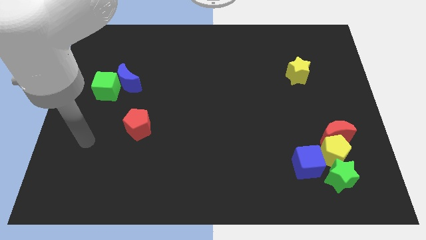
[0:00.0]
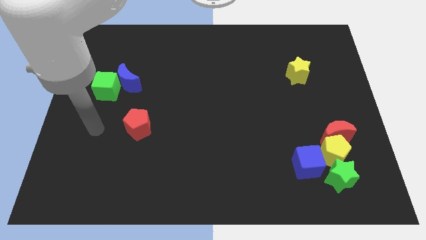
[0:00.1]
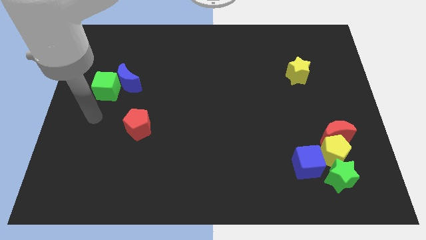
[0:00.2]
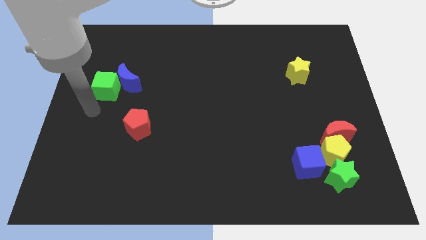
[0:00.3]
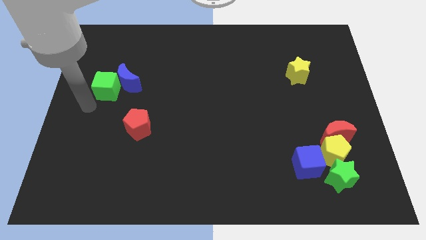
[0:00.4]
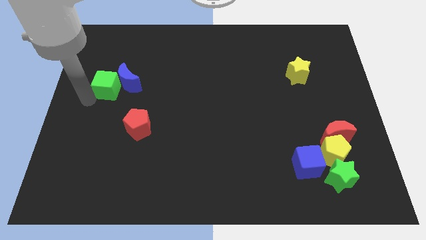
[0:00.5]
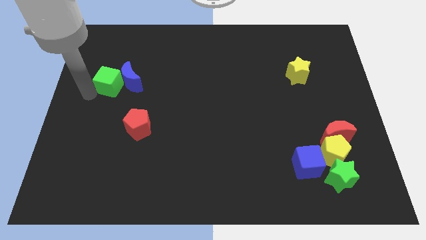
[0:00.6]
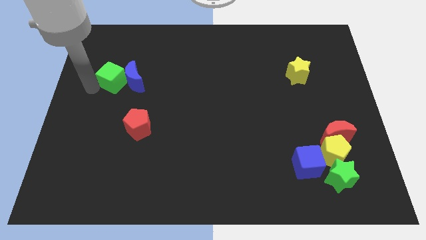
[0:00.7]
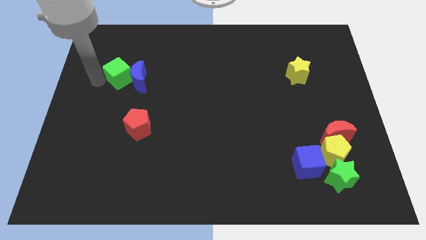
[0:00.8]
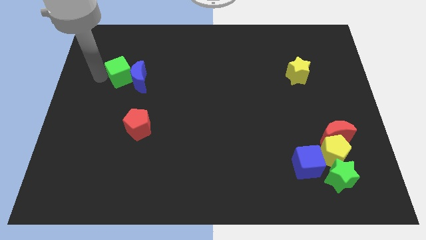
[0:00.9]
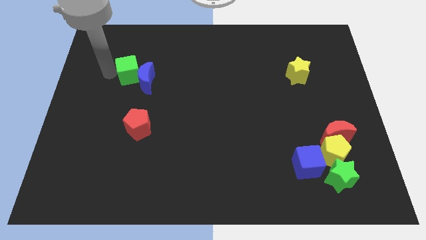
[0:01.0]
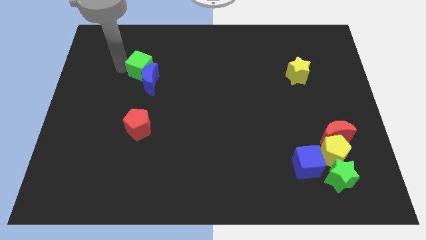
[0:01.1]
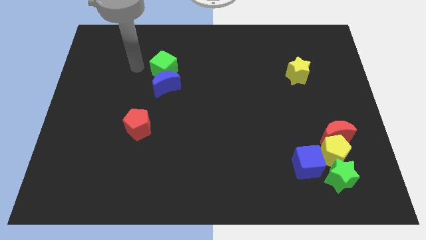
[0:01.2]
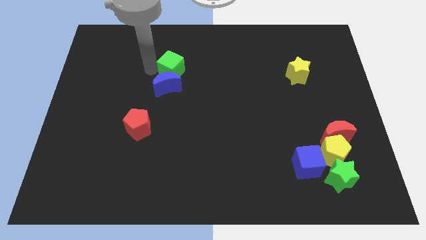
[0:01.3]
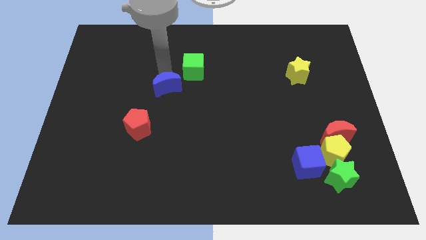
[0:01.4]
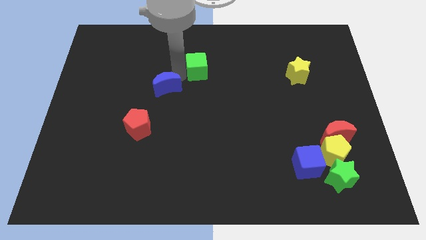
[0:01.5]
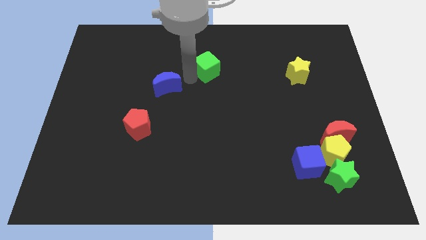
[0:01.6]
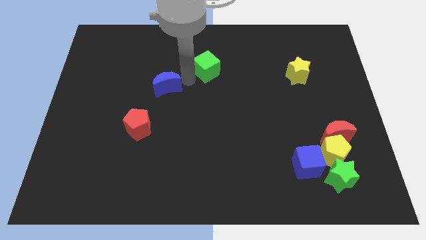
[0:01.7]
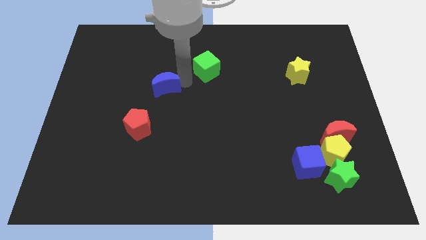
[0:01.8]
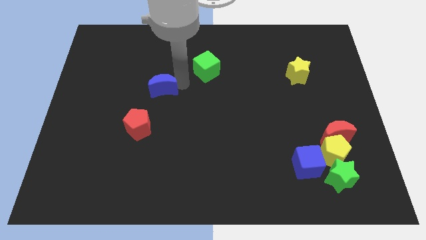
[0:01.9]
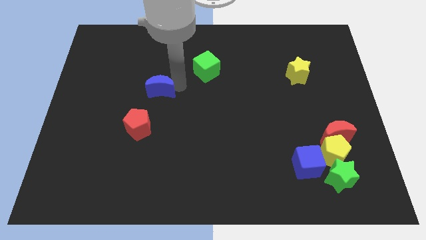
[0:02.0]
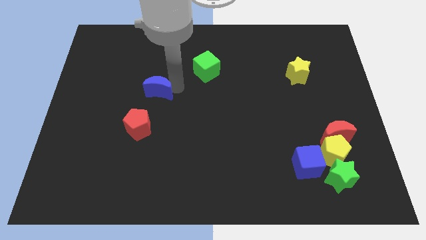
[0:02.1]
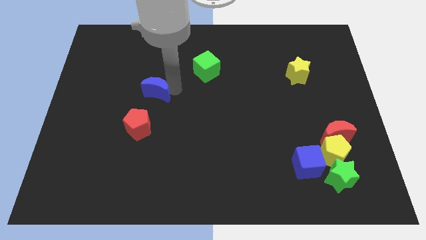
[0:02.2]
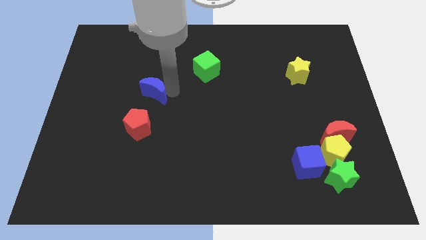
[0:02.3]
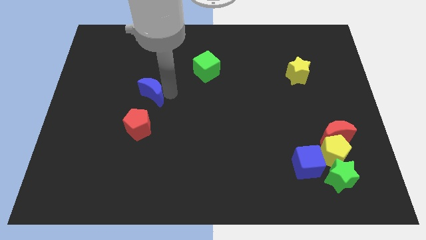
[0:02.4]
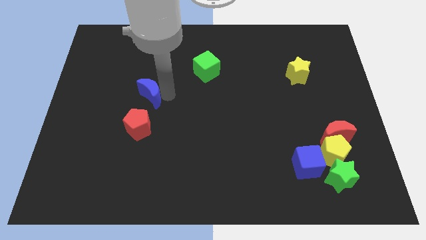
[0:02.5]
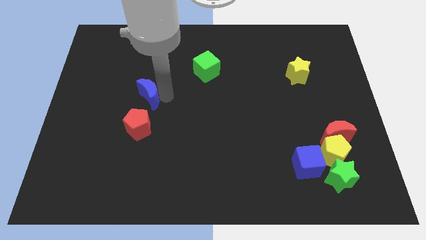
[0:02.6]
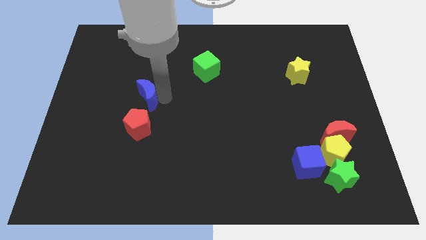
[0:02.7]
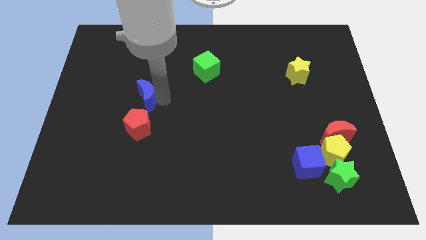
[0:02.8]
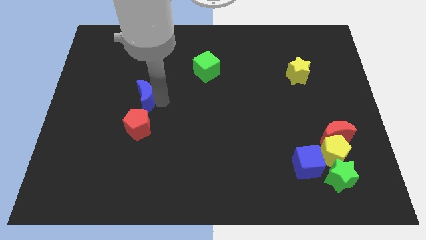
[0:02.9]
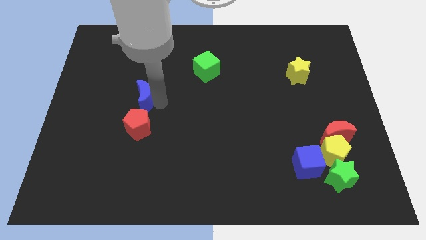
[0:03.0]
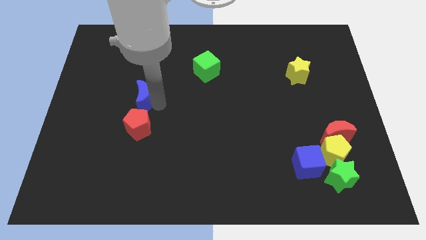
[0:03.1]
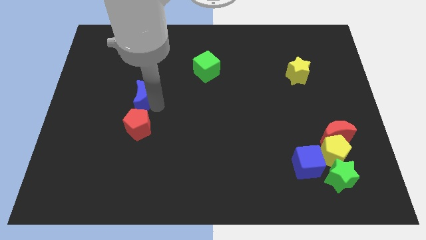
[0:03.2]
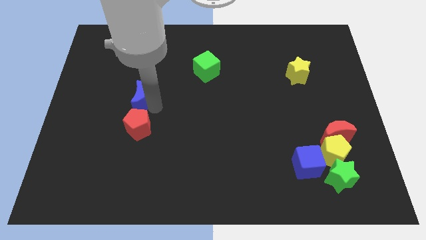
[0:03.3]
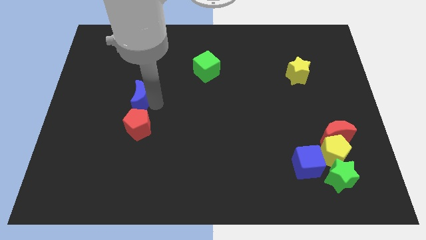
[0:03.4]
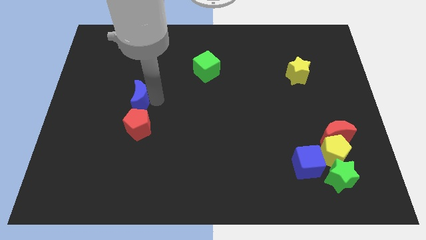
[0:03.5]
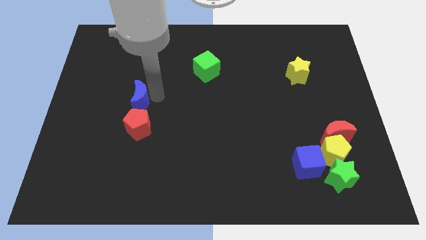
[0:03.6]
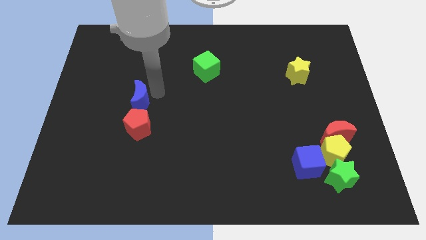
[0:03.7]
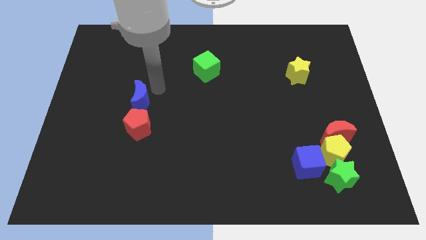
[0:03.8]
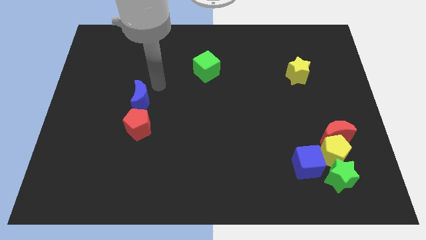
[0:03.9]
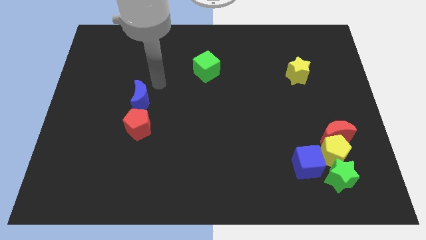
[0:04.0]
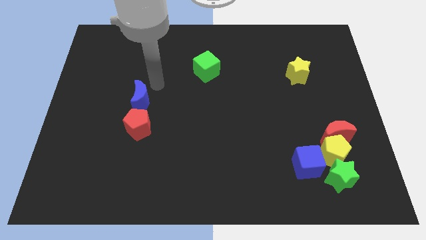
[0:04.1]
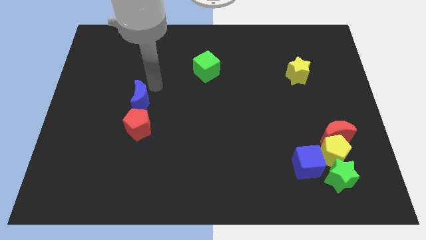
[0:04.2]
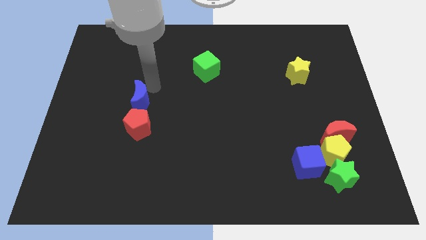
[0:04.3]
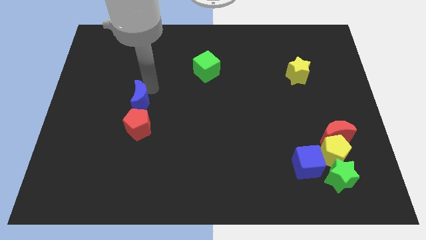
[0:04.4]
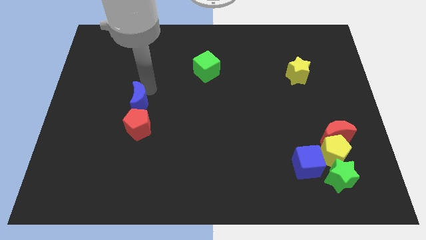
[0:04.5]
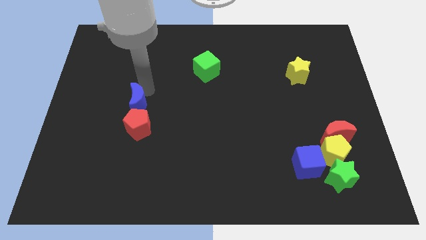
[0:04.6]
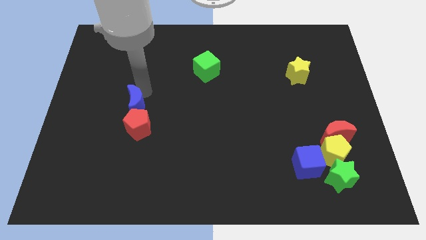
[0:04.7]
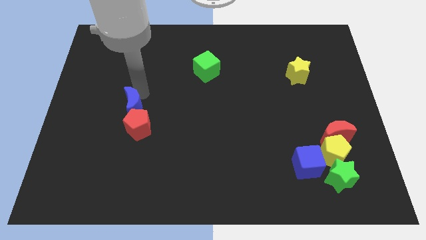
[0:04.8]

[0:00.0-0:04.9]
put the blue moon next to the red pentagon

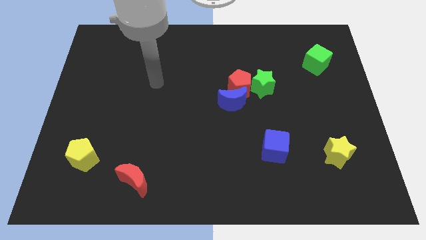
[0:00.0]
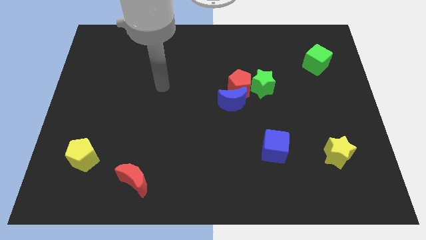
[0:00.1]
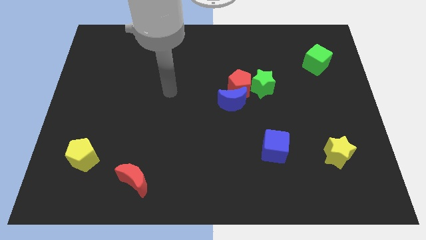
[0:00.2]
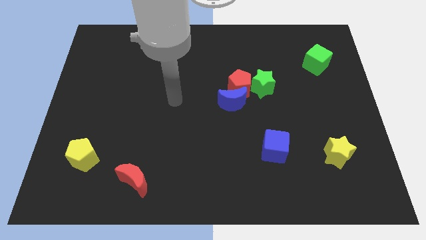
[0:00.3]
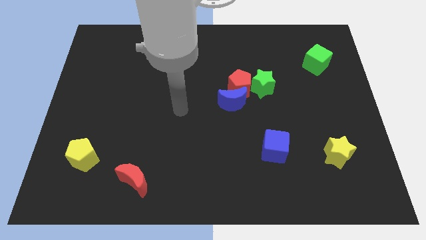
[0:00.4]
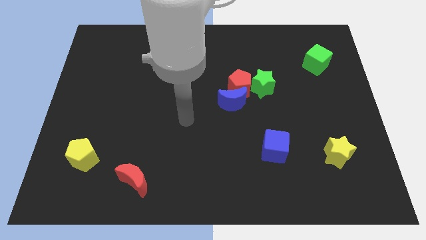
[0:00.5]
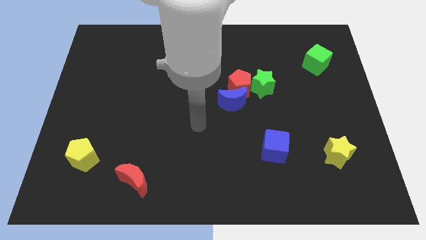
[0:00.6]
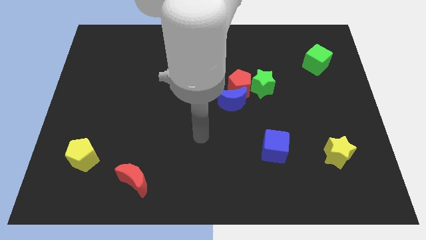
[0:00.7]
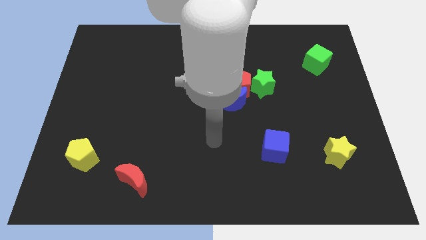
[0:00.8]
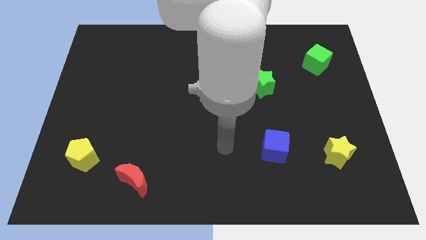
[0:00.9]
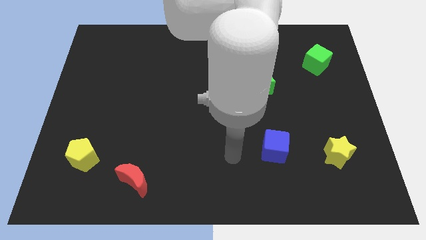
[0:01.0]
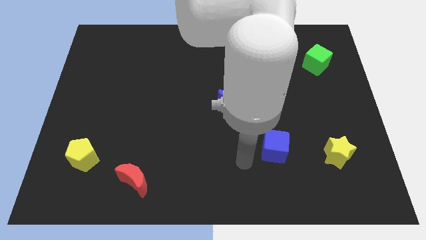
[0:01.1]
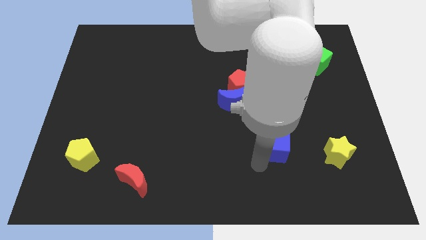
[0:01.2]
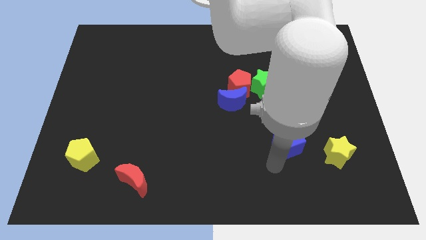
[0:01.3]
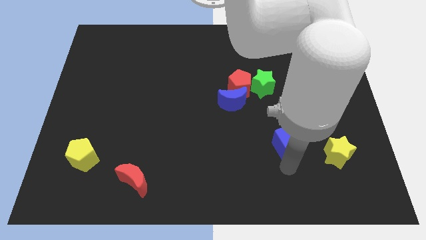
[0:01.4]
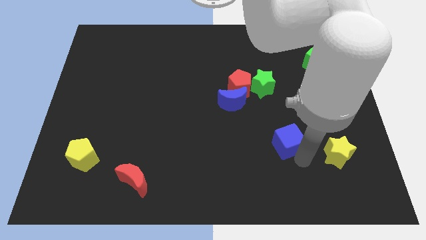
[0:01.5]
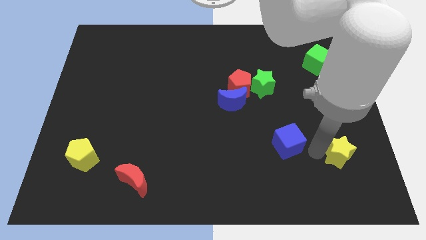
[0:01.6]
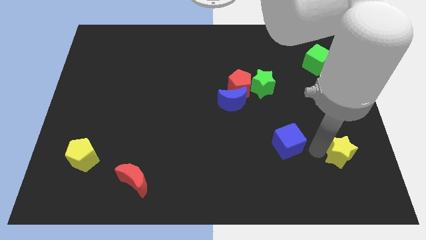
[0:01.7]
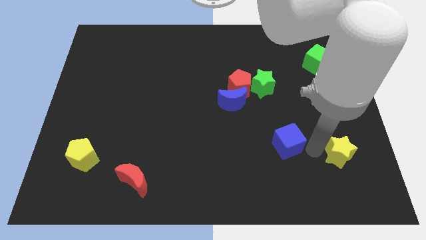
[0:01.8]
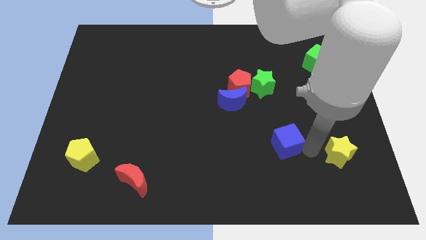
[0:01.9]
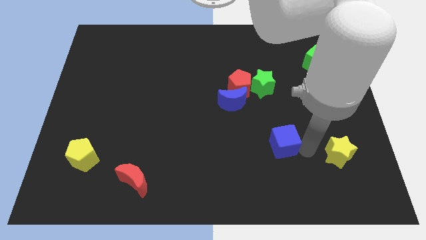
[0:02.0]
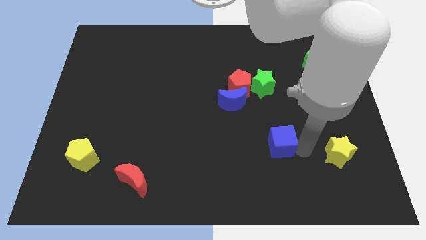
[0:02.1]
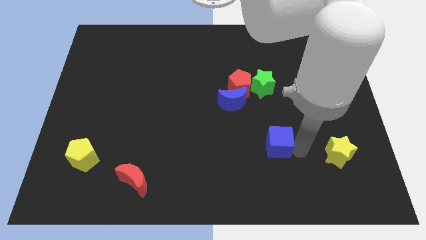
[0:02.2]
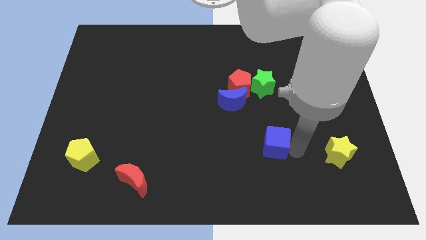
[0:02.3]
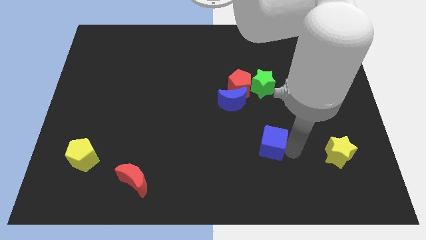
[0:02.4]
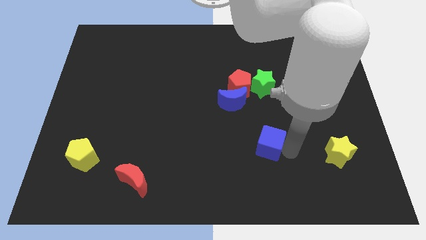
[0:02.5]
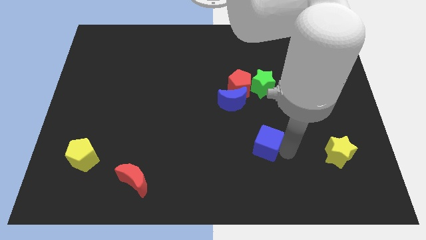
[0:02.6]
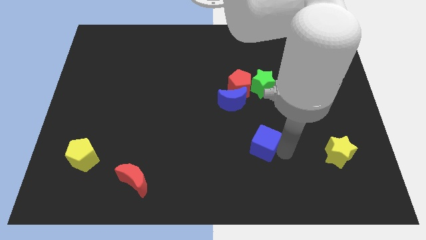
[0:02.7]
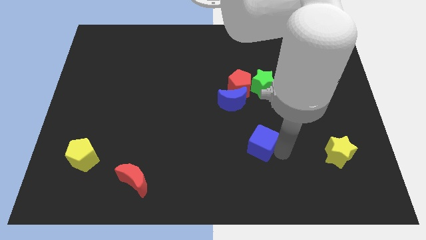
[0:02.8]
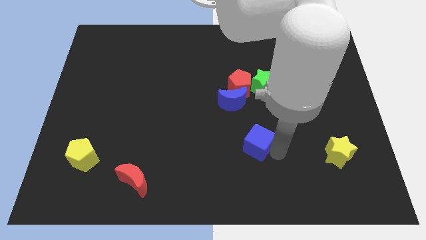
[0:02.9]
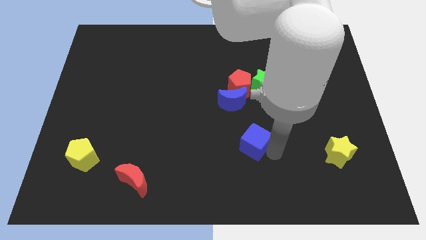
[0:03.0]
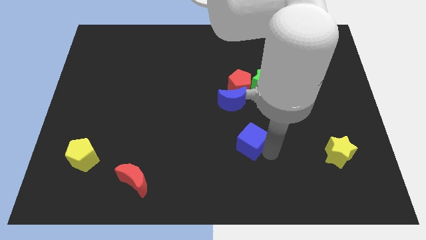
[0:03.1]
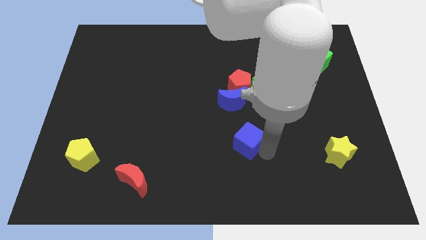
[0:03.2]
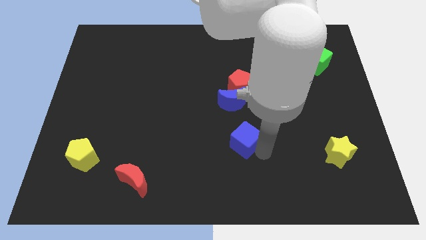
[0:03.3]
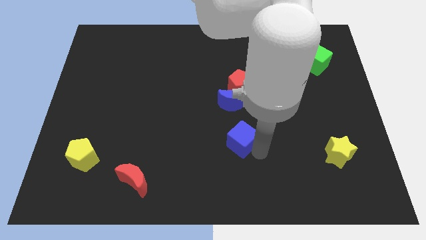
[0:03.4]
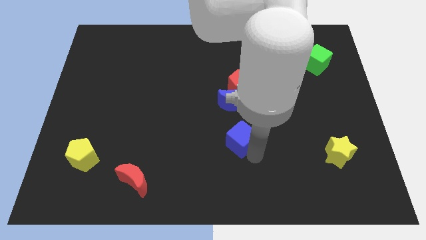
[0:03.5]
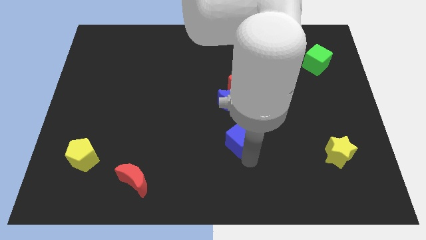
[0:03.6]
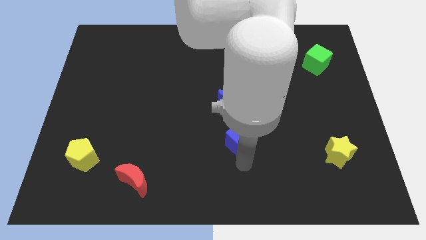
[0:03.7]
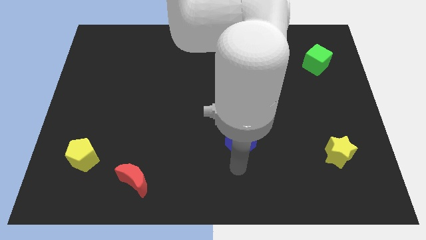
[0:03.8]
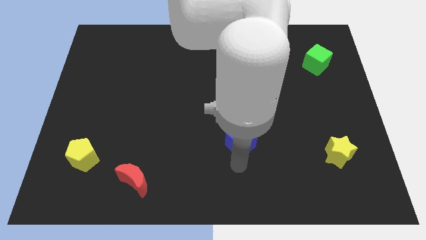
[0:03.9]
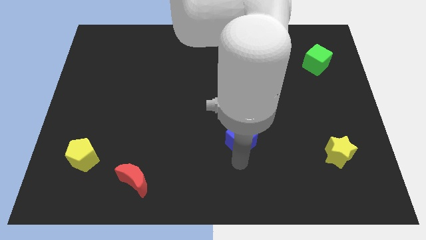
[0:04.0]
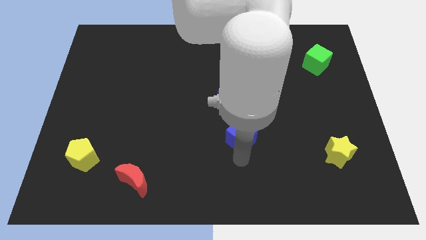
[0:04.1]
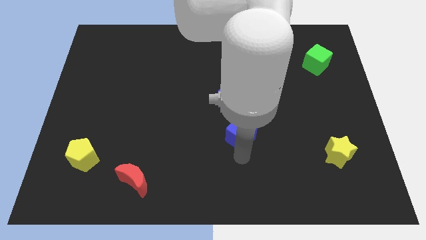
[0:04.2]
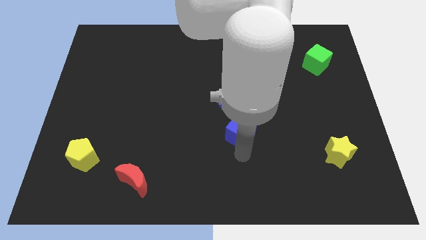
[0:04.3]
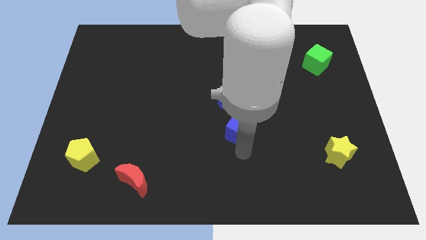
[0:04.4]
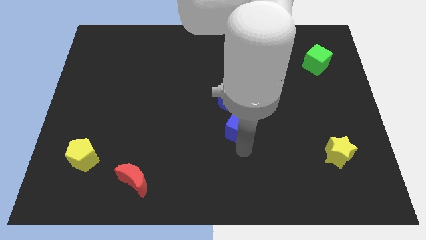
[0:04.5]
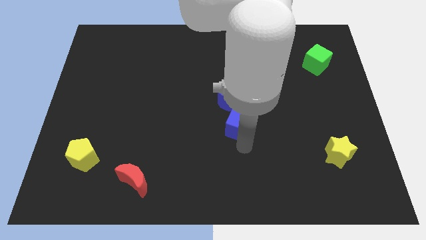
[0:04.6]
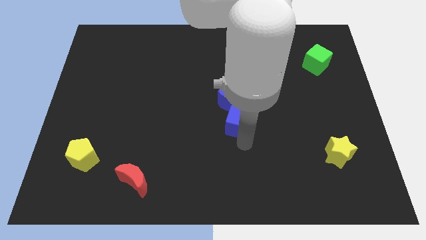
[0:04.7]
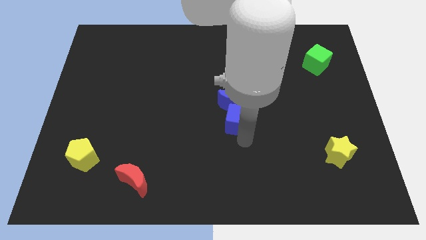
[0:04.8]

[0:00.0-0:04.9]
put the blue cube to the blue moon
